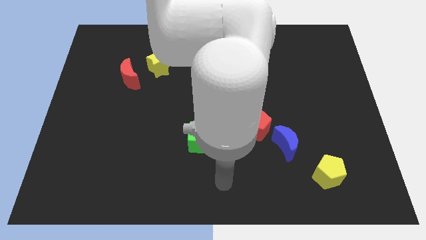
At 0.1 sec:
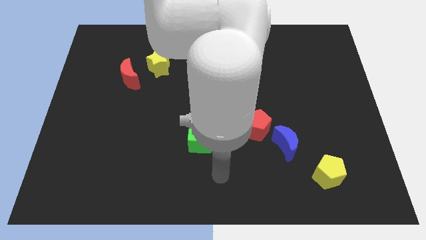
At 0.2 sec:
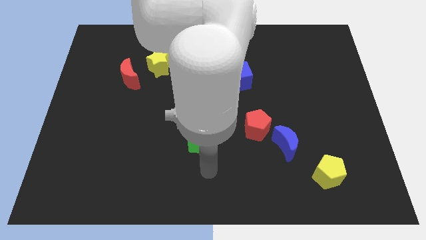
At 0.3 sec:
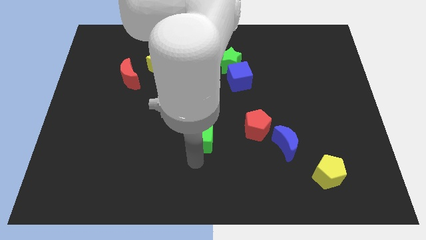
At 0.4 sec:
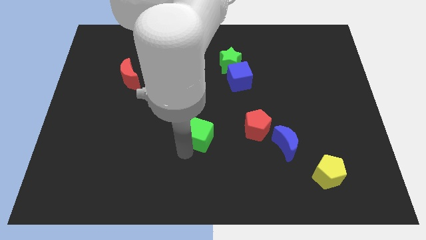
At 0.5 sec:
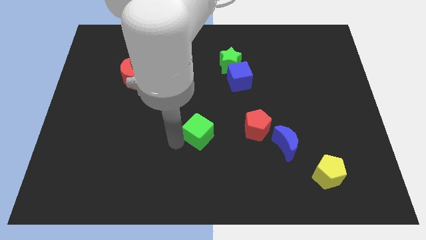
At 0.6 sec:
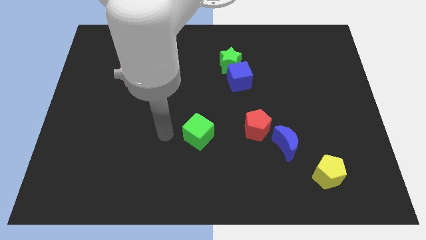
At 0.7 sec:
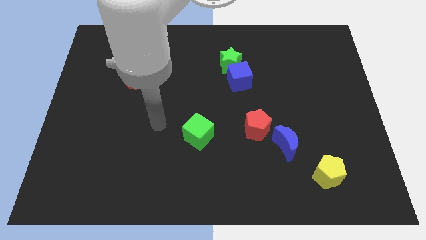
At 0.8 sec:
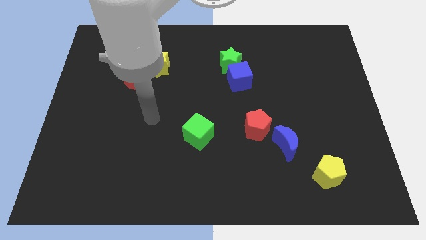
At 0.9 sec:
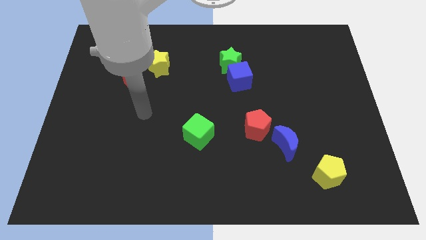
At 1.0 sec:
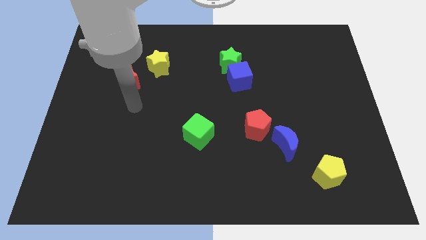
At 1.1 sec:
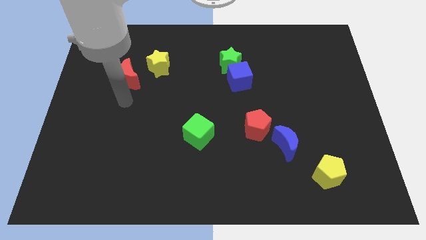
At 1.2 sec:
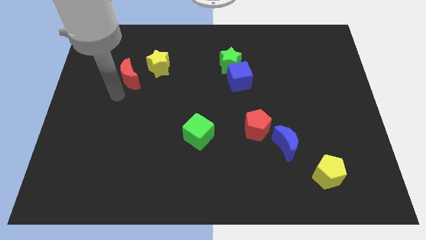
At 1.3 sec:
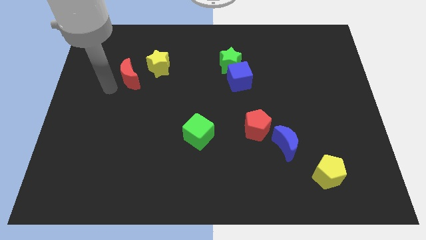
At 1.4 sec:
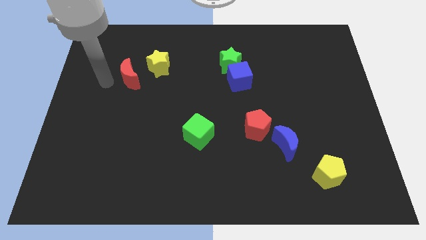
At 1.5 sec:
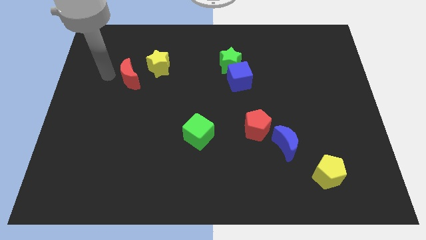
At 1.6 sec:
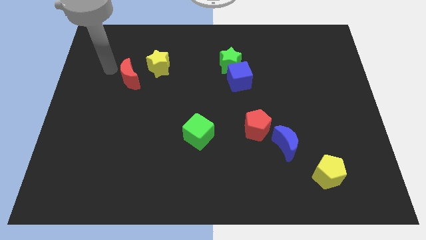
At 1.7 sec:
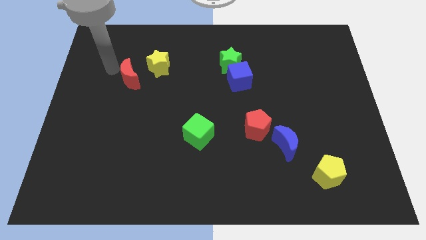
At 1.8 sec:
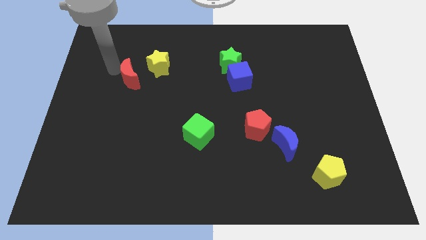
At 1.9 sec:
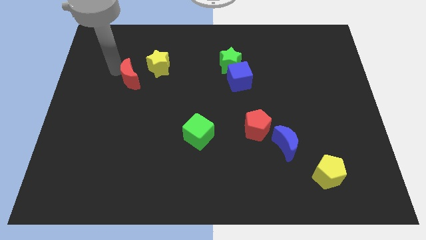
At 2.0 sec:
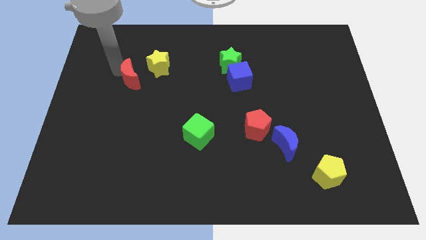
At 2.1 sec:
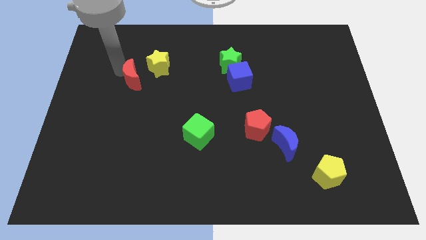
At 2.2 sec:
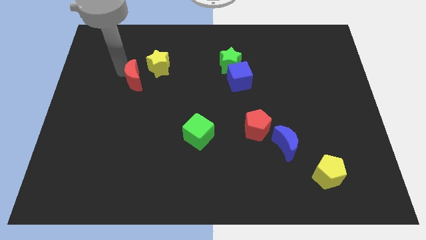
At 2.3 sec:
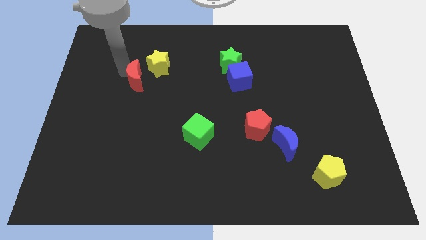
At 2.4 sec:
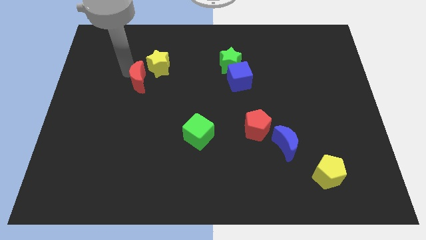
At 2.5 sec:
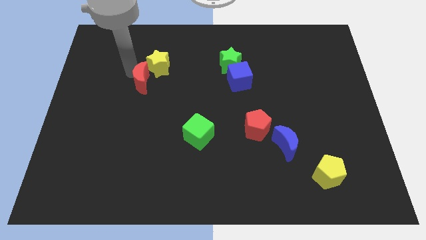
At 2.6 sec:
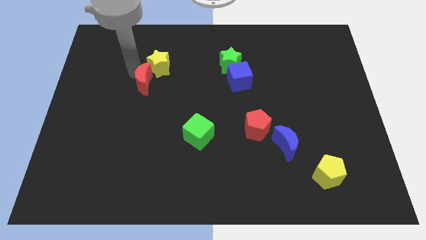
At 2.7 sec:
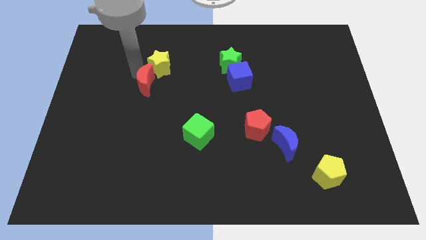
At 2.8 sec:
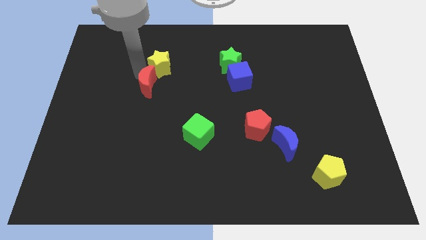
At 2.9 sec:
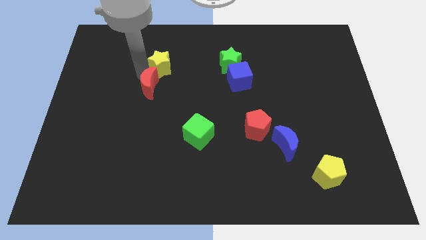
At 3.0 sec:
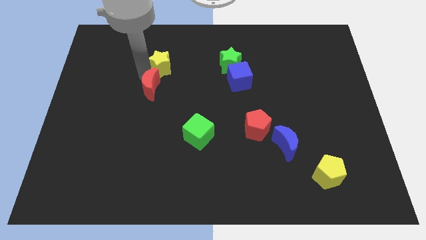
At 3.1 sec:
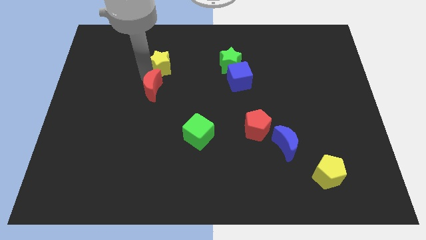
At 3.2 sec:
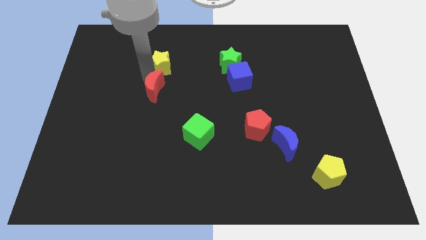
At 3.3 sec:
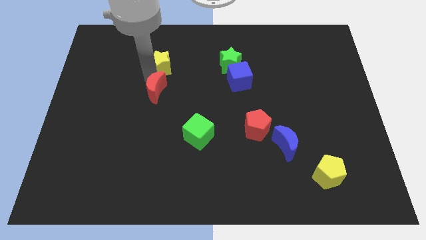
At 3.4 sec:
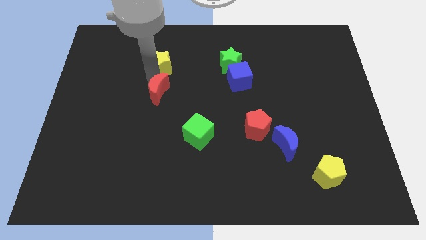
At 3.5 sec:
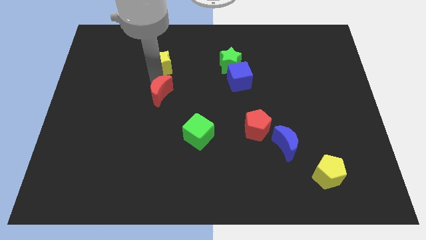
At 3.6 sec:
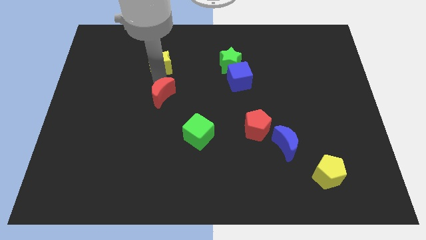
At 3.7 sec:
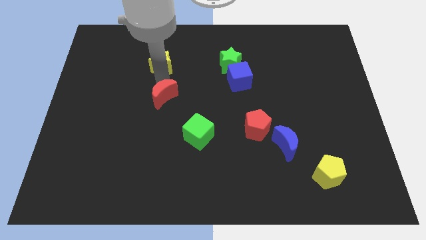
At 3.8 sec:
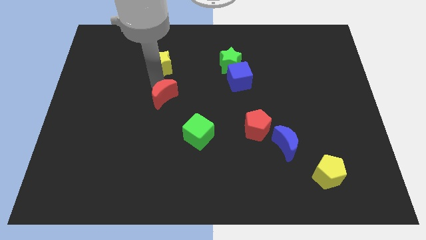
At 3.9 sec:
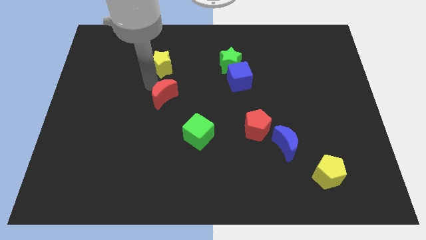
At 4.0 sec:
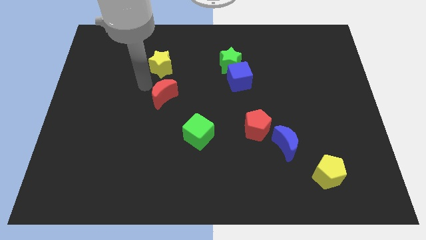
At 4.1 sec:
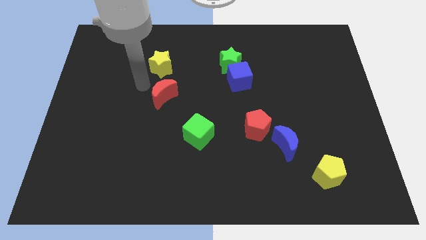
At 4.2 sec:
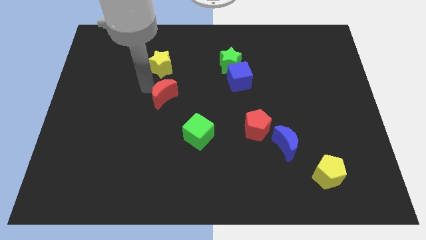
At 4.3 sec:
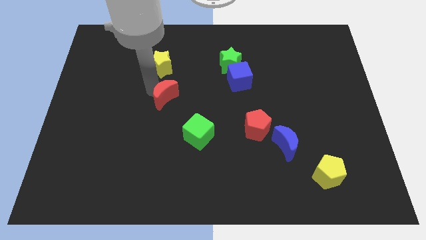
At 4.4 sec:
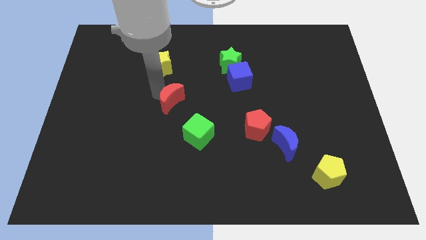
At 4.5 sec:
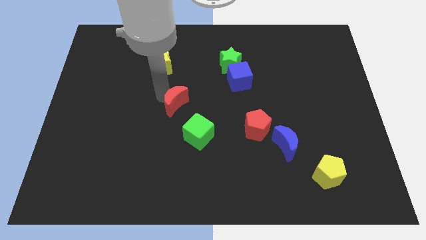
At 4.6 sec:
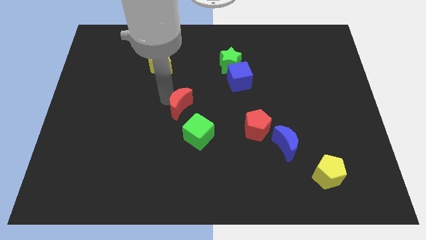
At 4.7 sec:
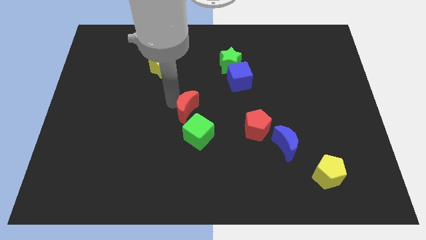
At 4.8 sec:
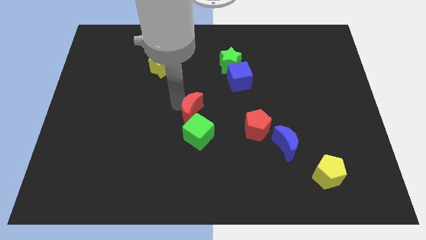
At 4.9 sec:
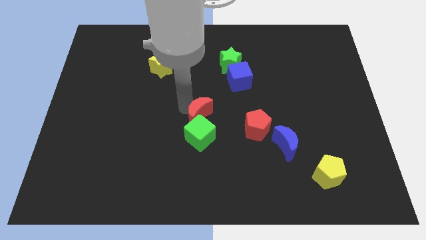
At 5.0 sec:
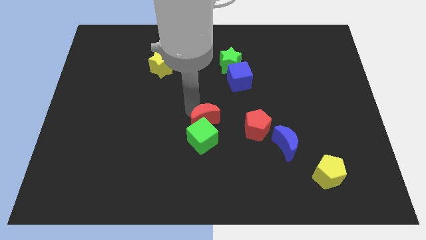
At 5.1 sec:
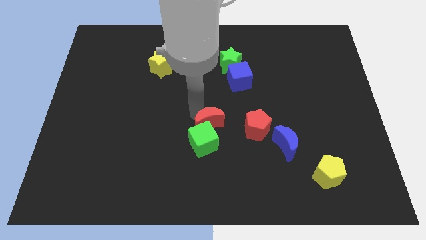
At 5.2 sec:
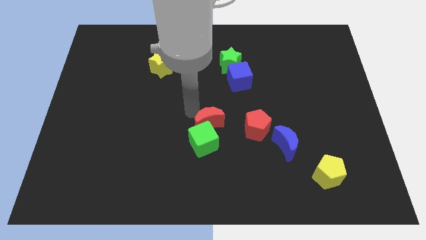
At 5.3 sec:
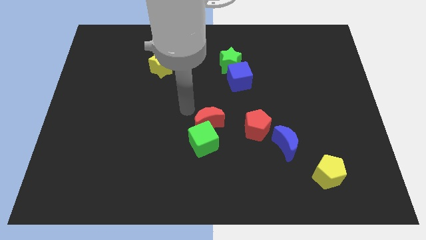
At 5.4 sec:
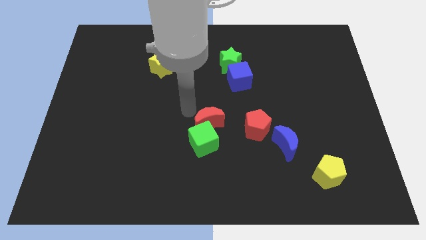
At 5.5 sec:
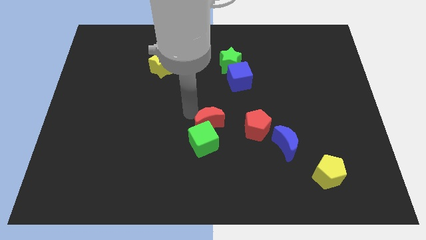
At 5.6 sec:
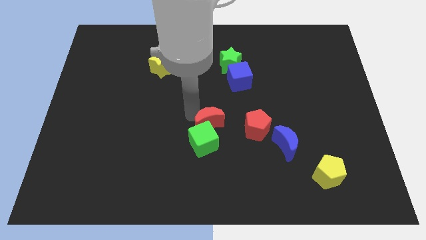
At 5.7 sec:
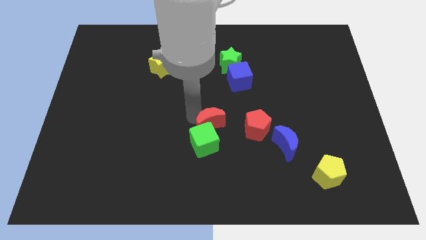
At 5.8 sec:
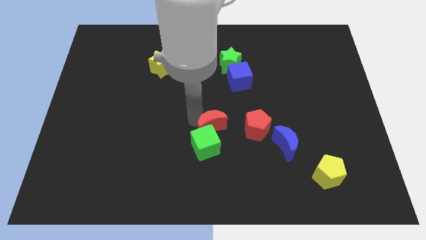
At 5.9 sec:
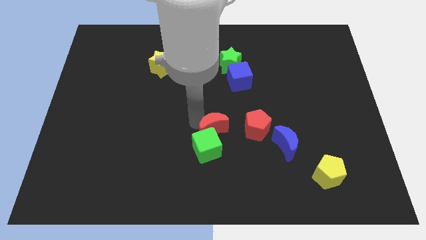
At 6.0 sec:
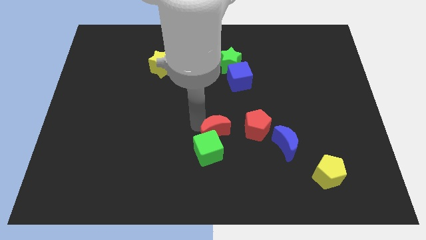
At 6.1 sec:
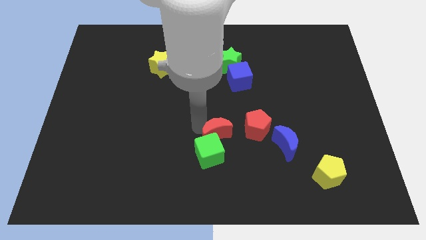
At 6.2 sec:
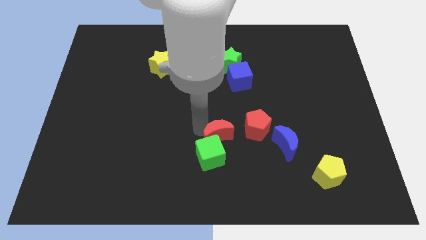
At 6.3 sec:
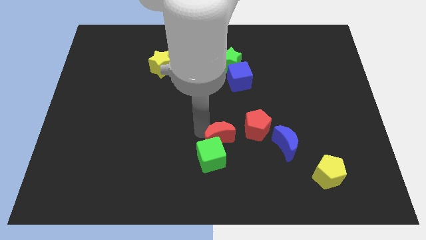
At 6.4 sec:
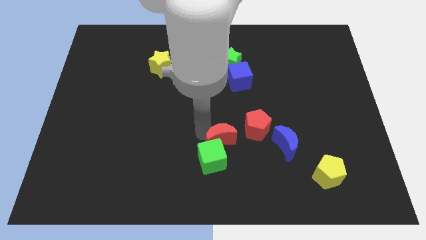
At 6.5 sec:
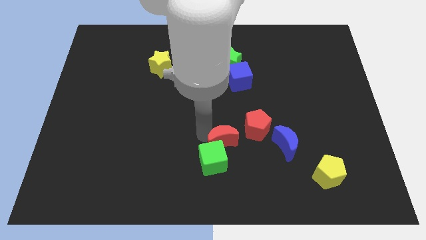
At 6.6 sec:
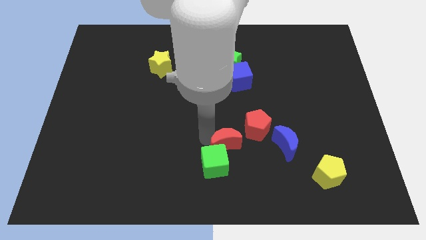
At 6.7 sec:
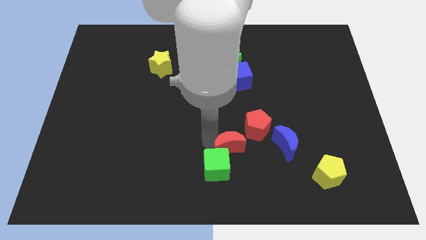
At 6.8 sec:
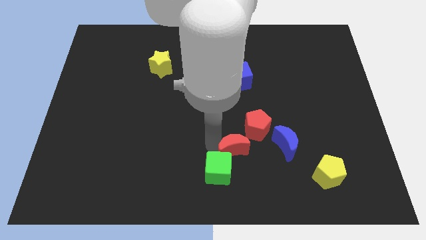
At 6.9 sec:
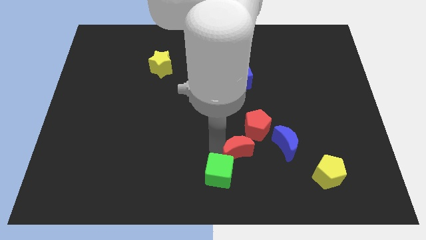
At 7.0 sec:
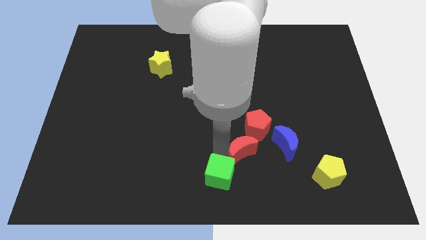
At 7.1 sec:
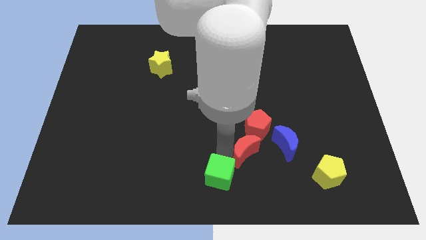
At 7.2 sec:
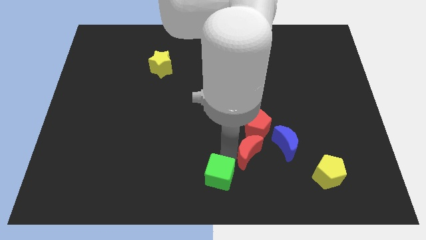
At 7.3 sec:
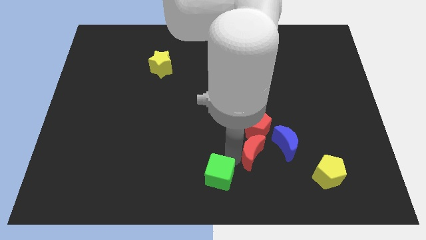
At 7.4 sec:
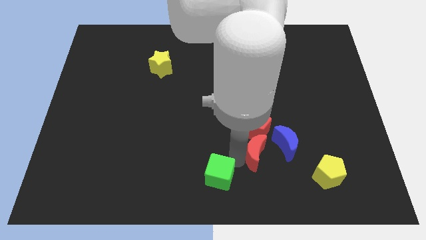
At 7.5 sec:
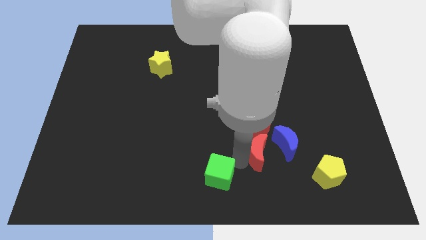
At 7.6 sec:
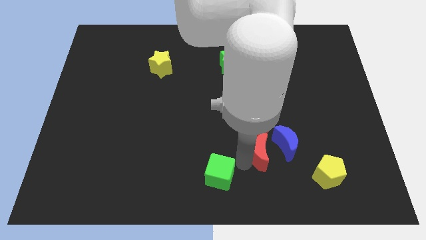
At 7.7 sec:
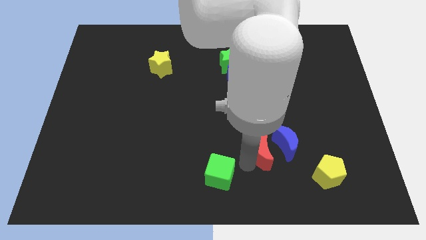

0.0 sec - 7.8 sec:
move the red moon close to the blue moon
